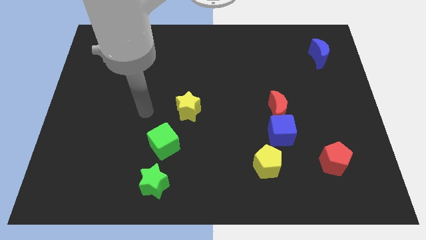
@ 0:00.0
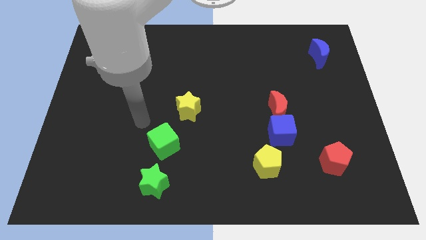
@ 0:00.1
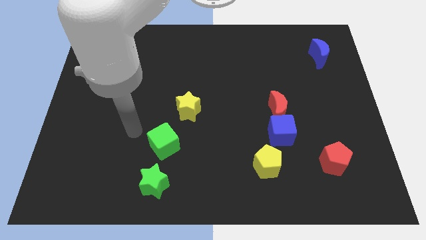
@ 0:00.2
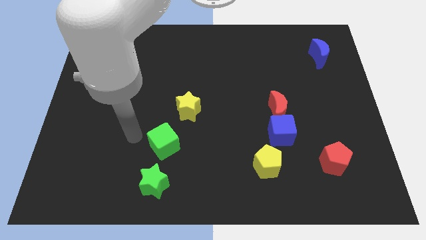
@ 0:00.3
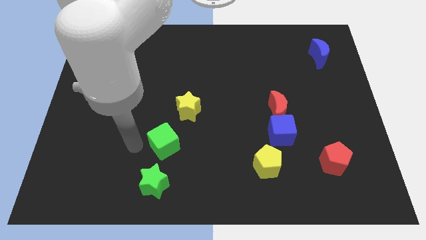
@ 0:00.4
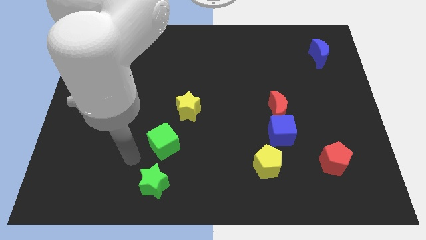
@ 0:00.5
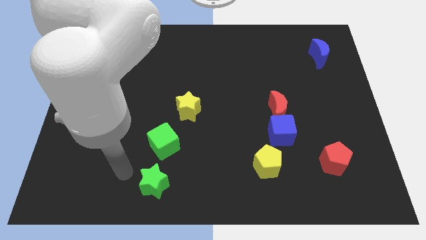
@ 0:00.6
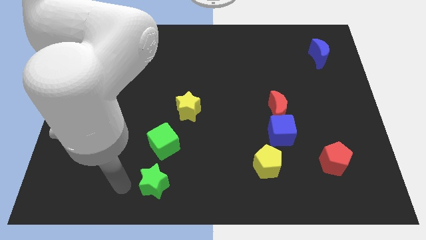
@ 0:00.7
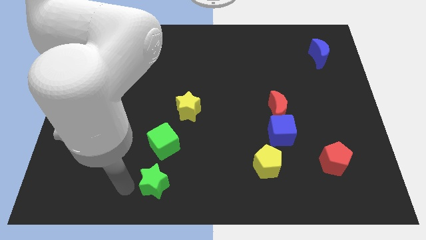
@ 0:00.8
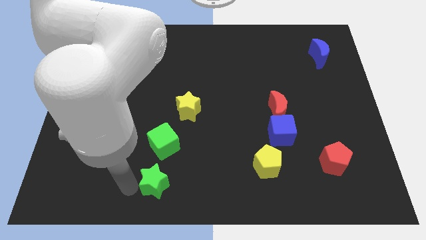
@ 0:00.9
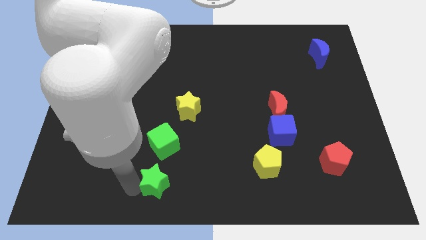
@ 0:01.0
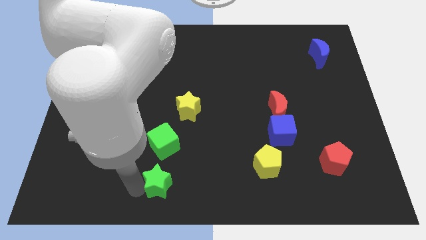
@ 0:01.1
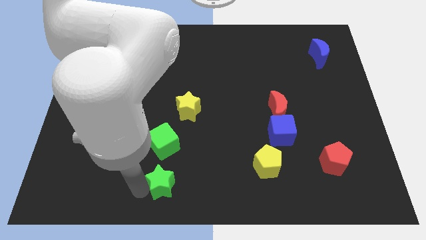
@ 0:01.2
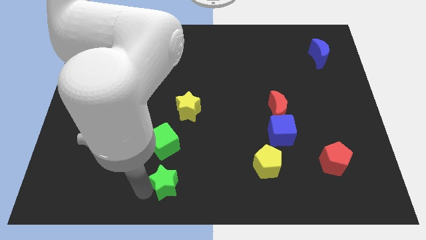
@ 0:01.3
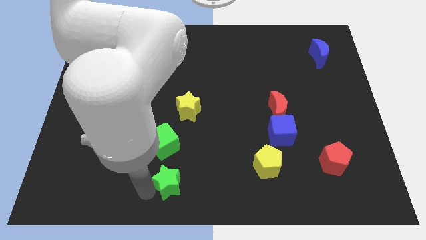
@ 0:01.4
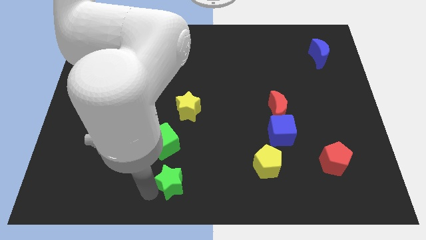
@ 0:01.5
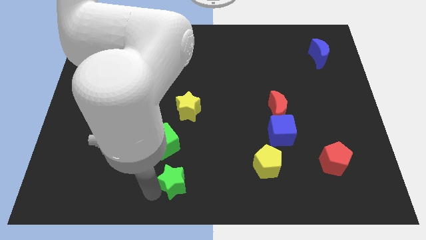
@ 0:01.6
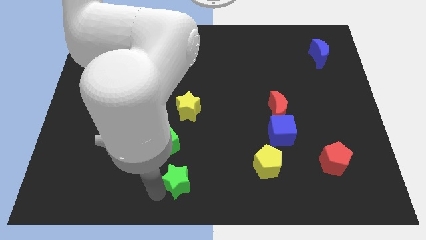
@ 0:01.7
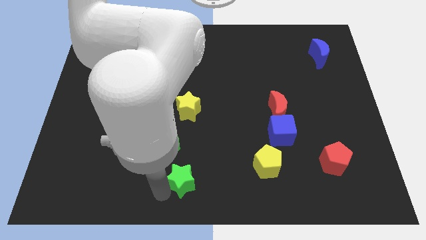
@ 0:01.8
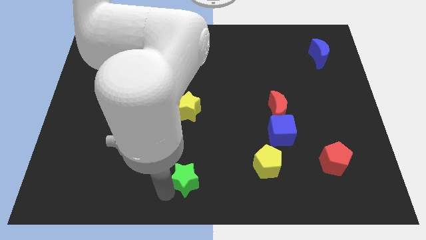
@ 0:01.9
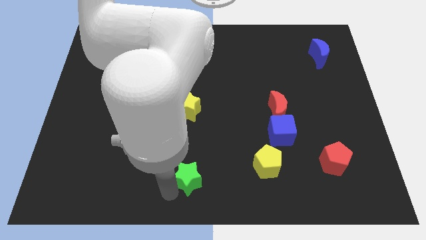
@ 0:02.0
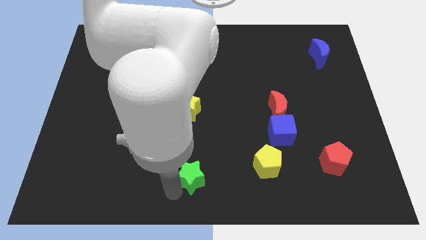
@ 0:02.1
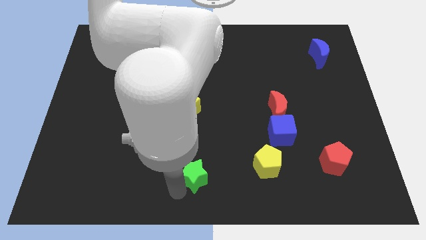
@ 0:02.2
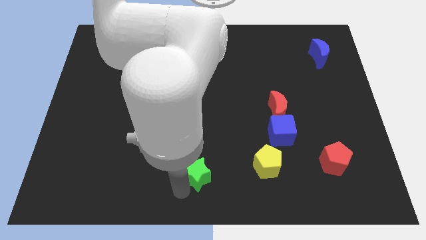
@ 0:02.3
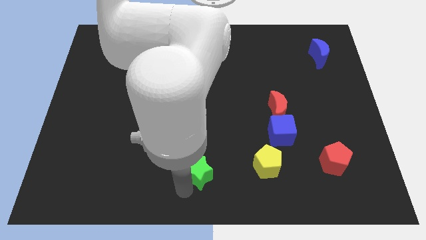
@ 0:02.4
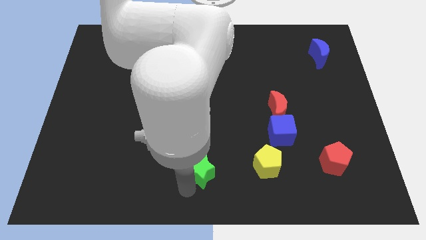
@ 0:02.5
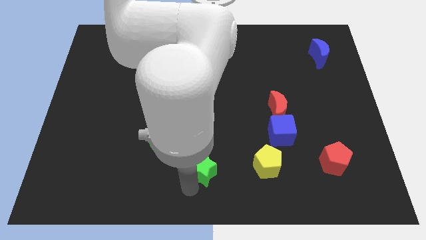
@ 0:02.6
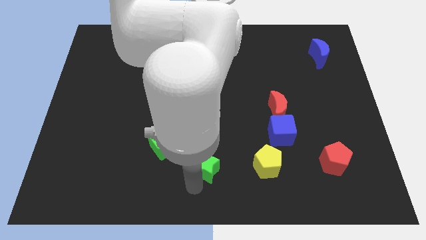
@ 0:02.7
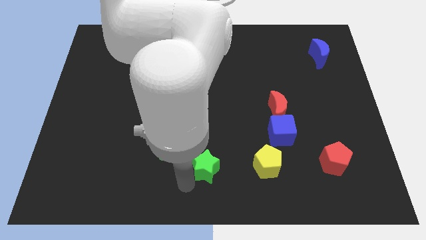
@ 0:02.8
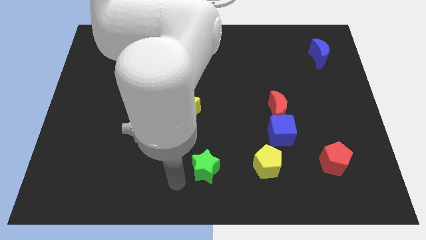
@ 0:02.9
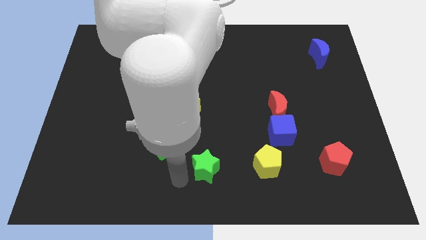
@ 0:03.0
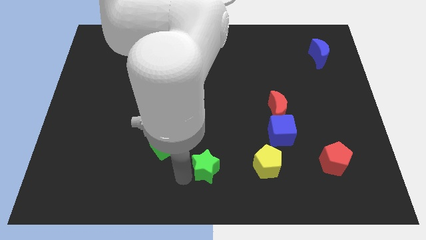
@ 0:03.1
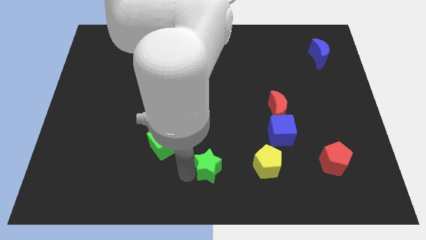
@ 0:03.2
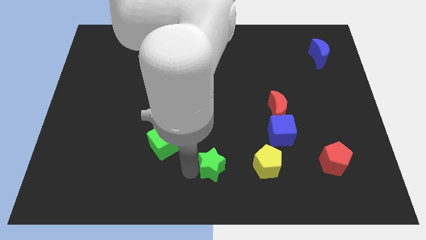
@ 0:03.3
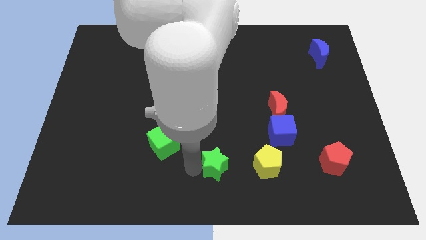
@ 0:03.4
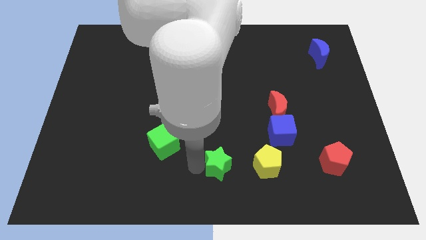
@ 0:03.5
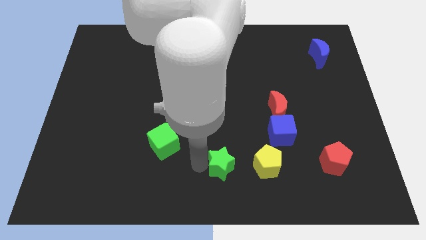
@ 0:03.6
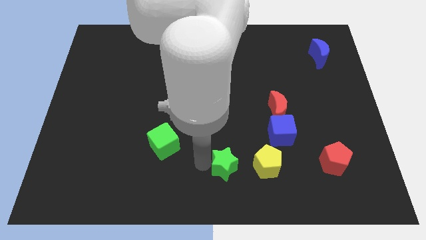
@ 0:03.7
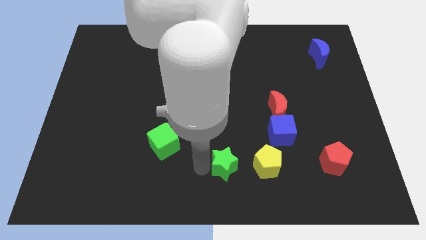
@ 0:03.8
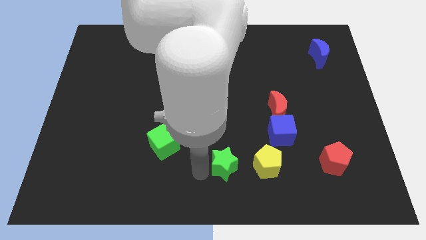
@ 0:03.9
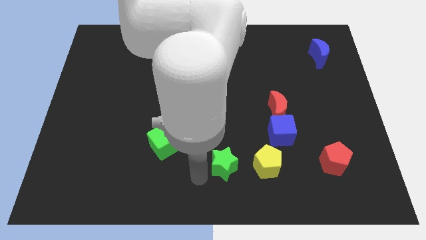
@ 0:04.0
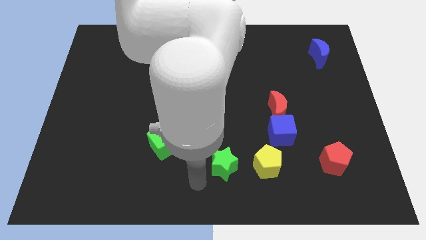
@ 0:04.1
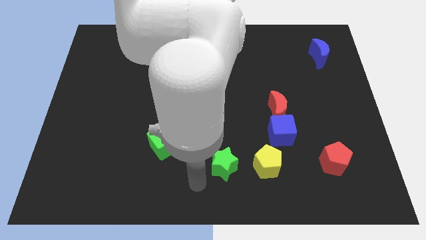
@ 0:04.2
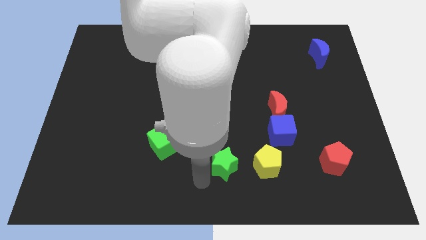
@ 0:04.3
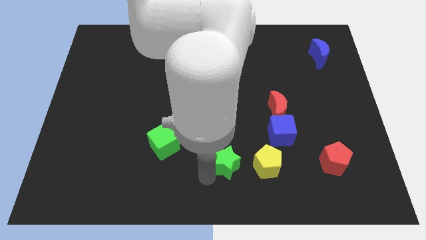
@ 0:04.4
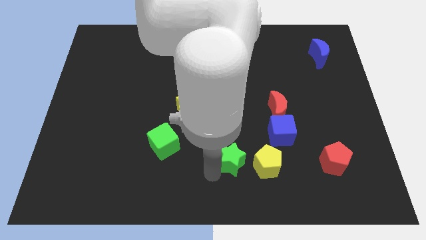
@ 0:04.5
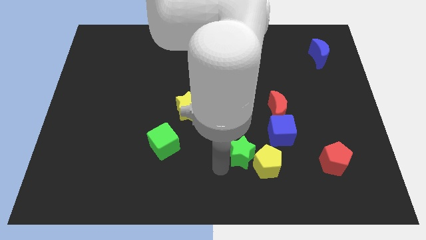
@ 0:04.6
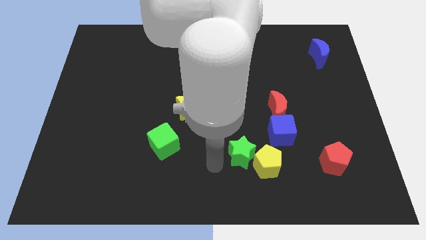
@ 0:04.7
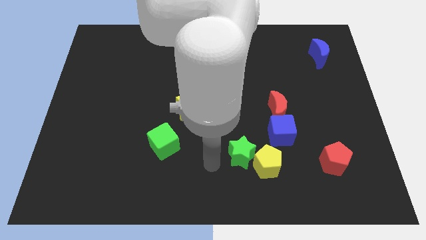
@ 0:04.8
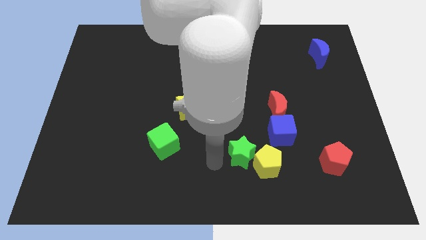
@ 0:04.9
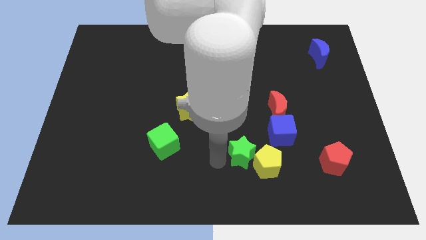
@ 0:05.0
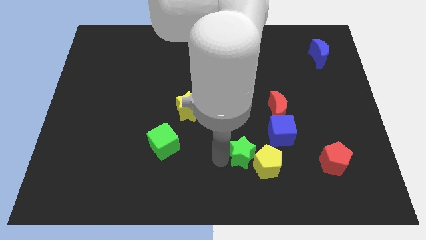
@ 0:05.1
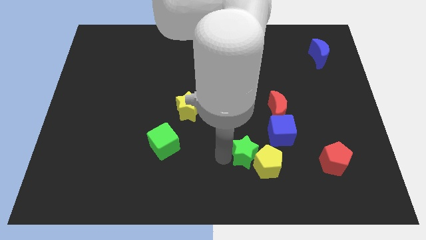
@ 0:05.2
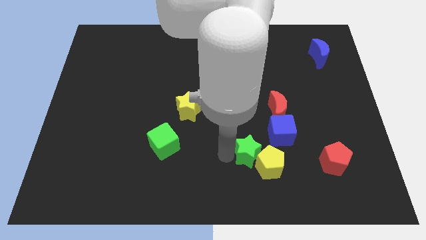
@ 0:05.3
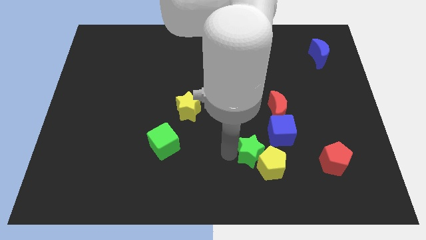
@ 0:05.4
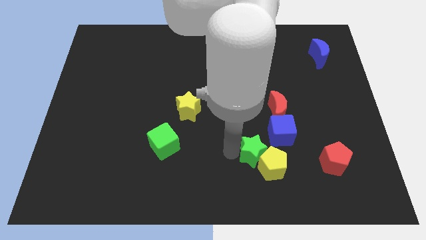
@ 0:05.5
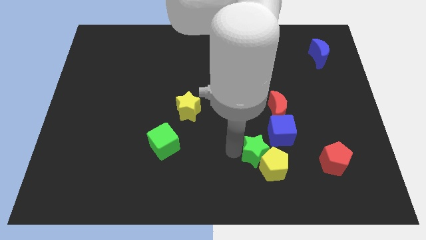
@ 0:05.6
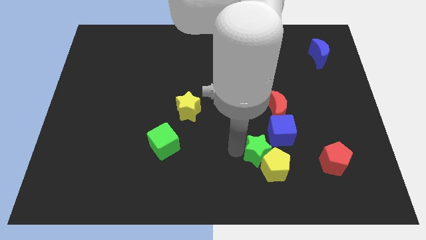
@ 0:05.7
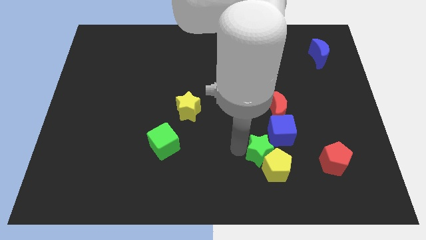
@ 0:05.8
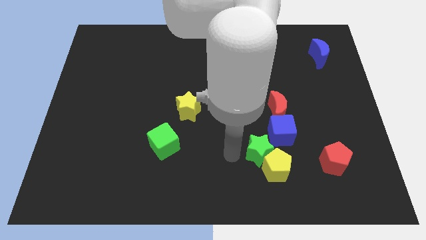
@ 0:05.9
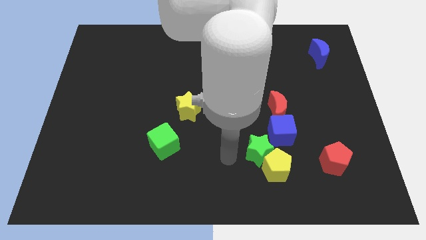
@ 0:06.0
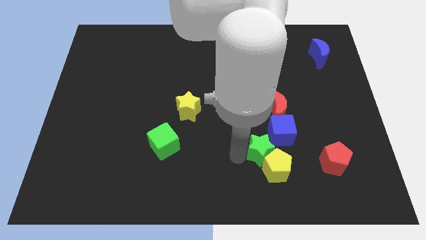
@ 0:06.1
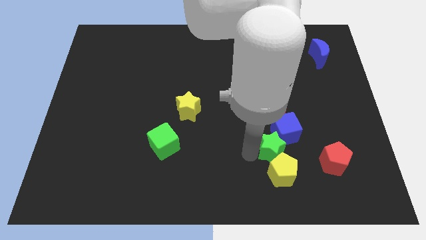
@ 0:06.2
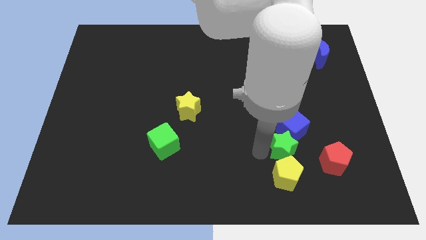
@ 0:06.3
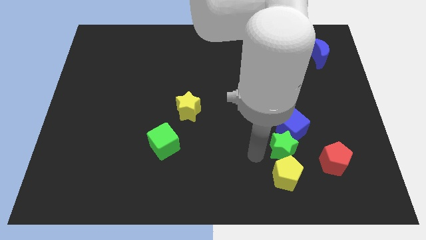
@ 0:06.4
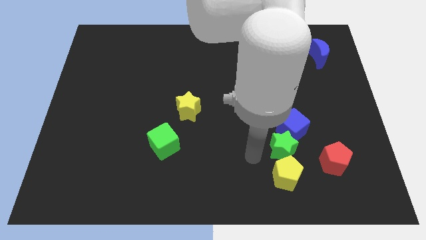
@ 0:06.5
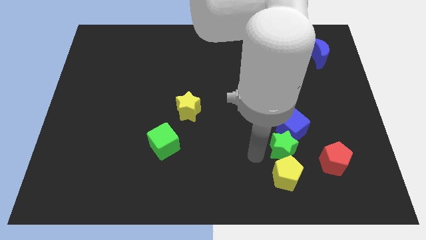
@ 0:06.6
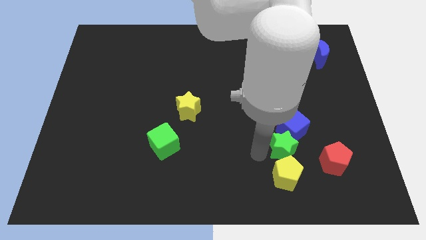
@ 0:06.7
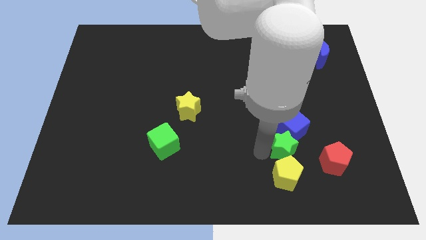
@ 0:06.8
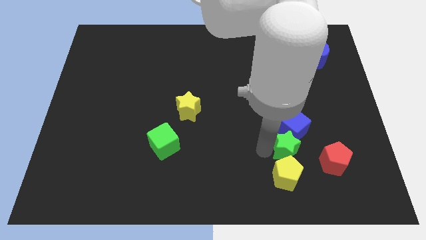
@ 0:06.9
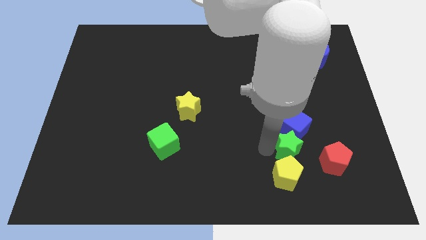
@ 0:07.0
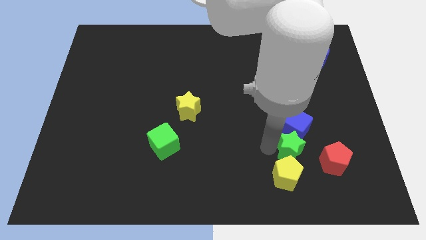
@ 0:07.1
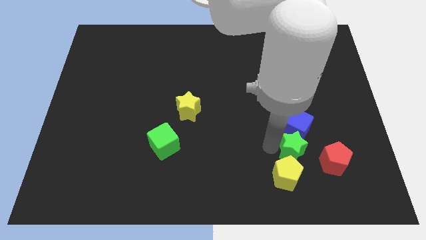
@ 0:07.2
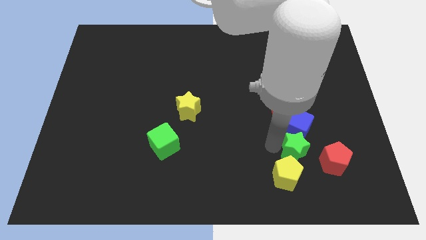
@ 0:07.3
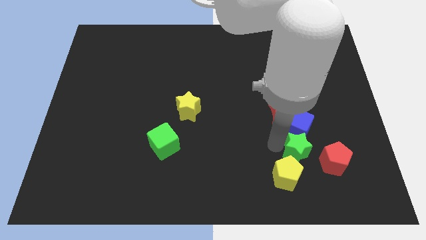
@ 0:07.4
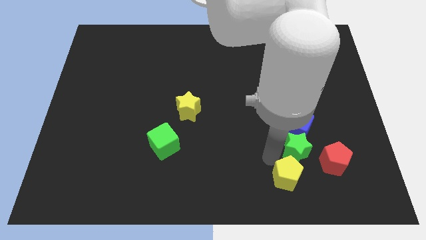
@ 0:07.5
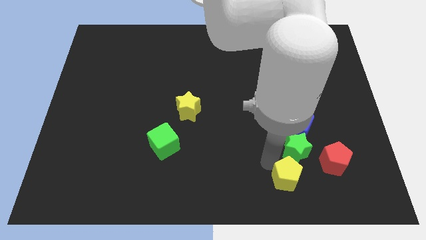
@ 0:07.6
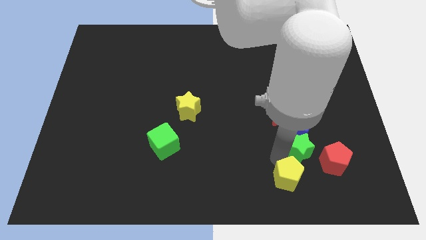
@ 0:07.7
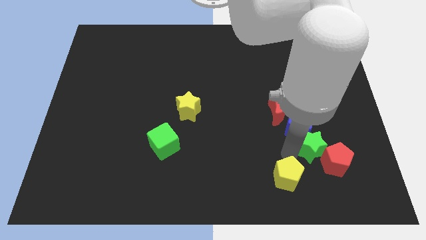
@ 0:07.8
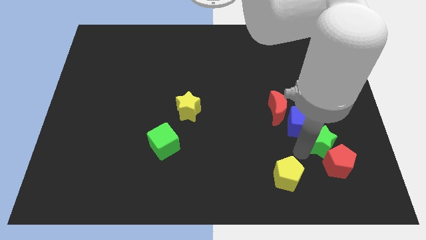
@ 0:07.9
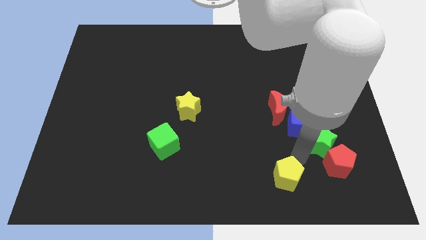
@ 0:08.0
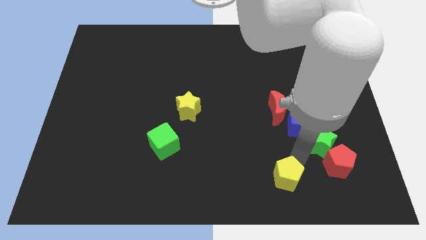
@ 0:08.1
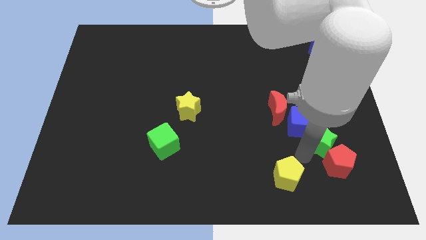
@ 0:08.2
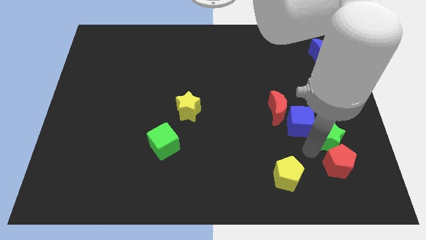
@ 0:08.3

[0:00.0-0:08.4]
slide the green star to the right of the blue cube
